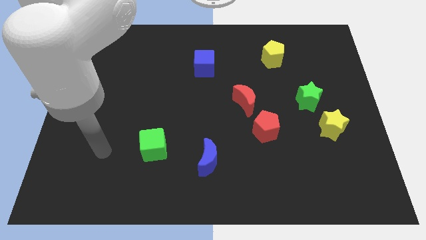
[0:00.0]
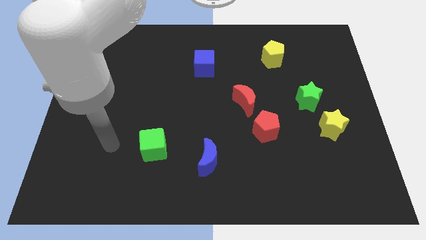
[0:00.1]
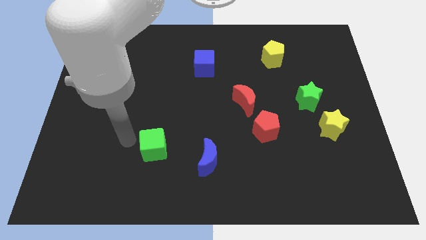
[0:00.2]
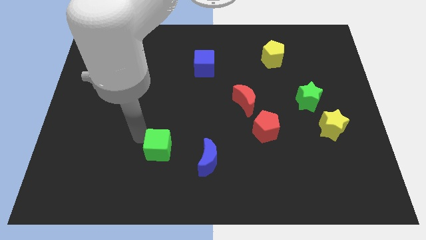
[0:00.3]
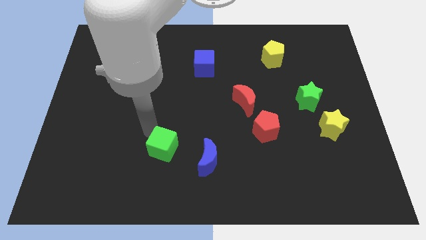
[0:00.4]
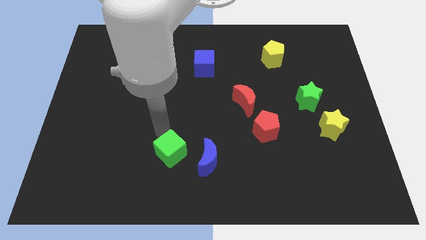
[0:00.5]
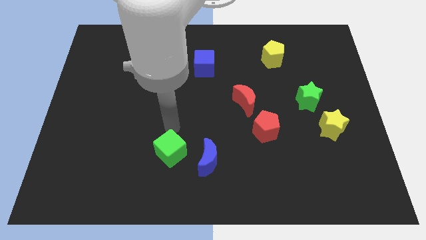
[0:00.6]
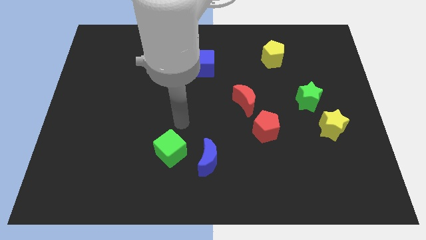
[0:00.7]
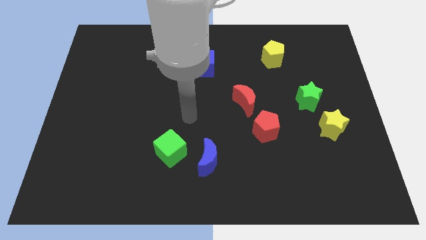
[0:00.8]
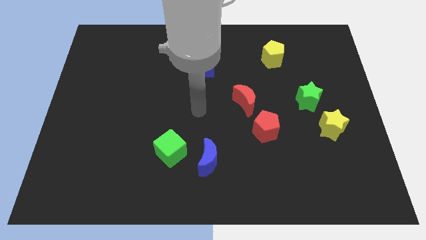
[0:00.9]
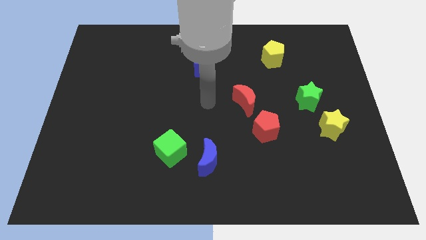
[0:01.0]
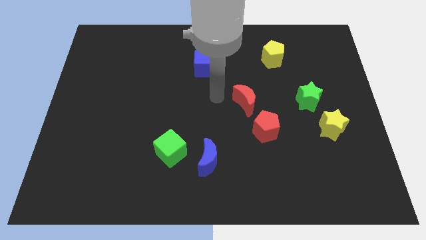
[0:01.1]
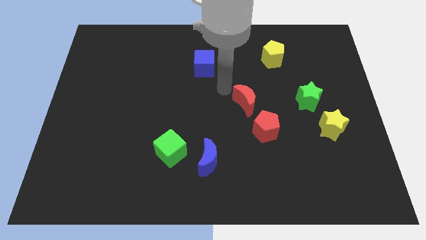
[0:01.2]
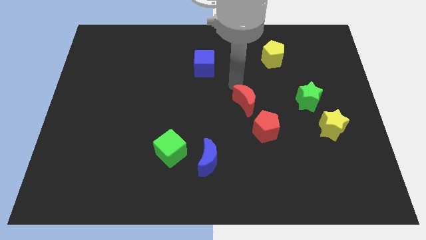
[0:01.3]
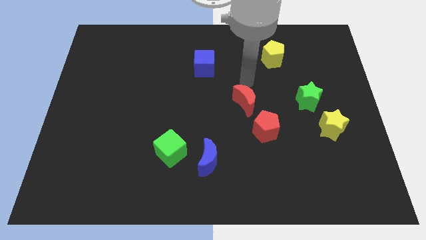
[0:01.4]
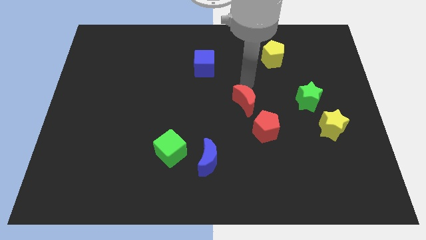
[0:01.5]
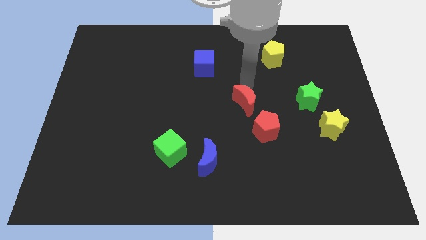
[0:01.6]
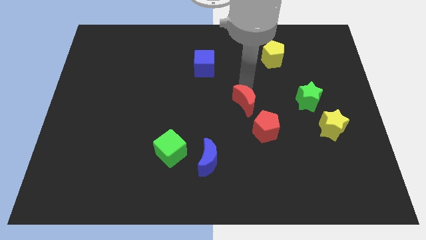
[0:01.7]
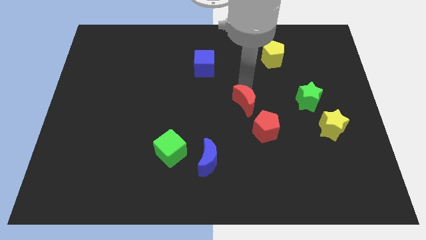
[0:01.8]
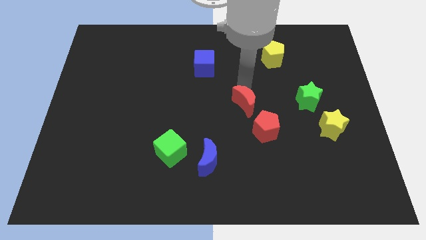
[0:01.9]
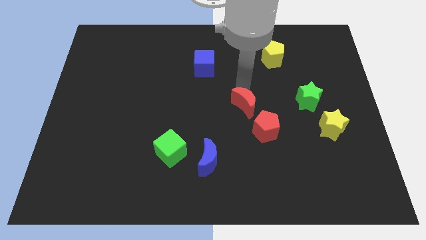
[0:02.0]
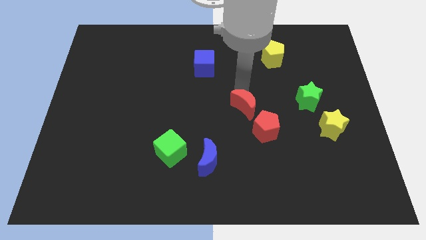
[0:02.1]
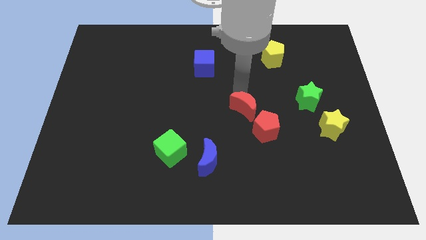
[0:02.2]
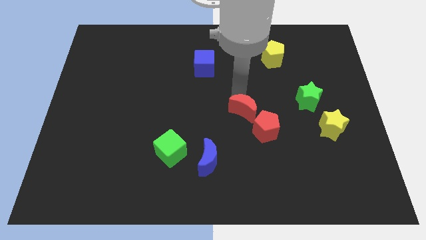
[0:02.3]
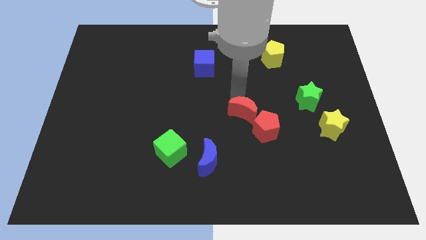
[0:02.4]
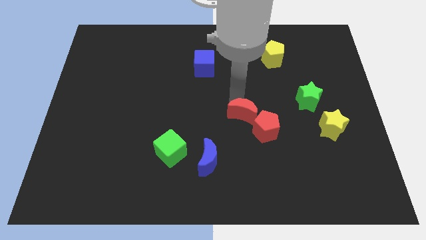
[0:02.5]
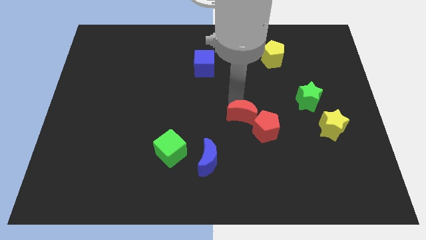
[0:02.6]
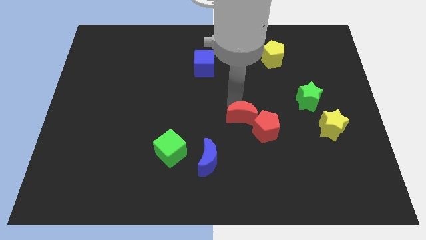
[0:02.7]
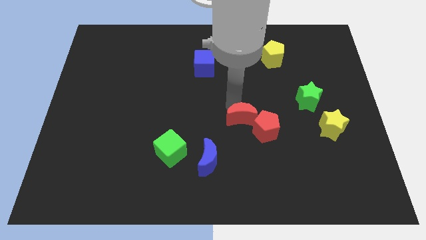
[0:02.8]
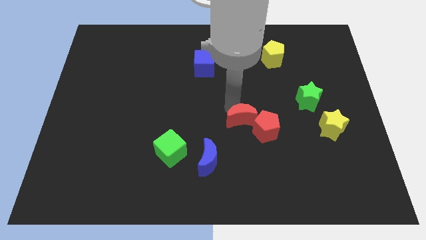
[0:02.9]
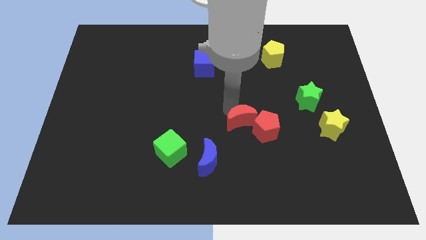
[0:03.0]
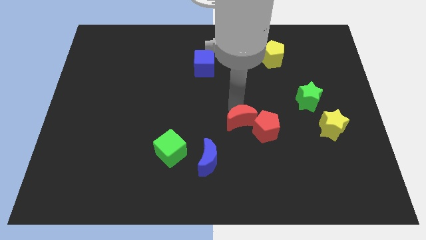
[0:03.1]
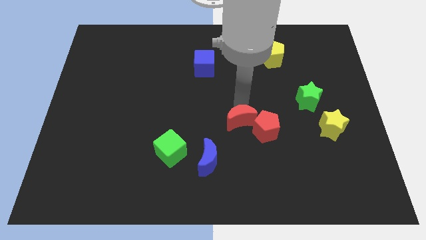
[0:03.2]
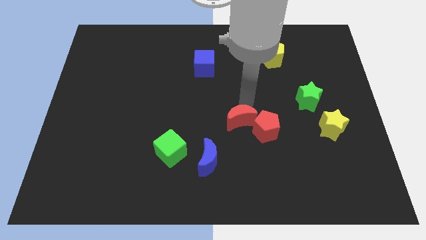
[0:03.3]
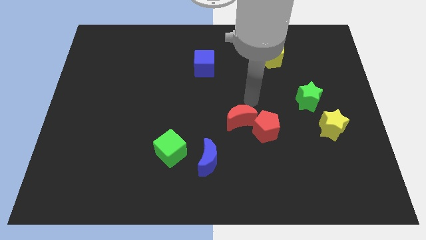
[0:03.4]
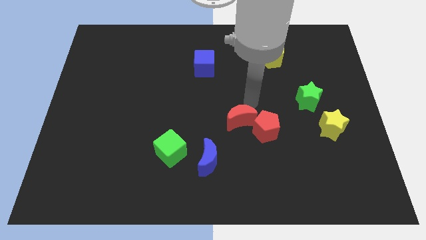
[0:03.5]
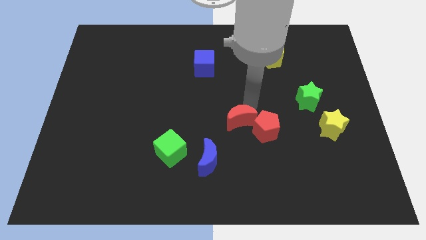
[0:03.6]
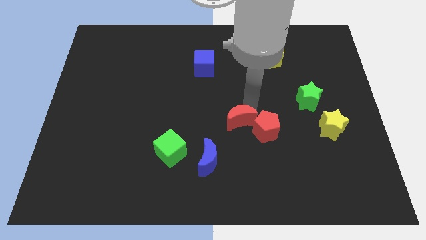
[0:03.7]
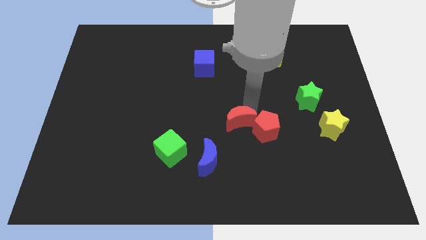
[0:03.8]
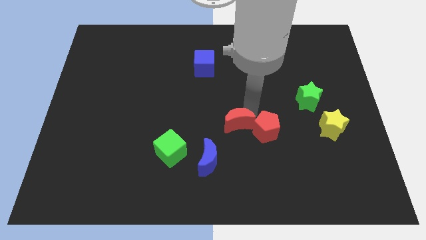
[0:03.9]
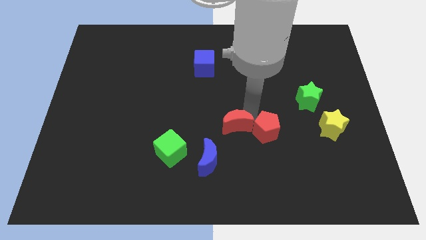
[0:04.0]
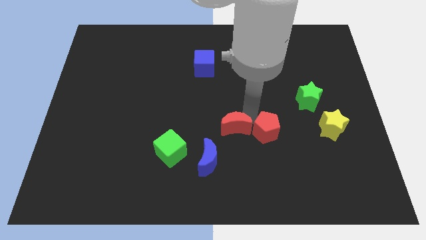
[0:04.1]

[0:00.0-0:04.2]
slide the red moon downwards a little bit

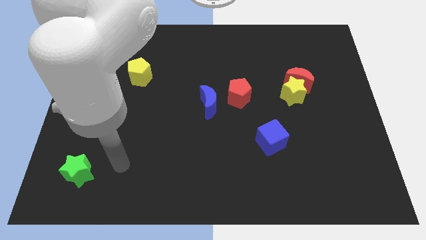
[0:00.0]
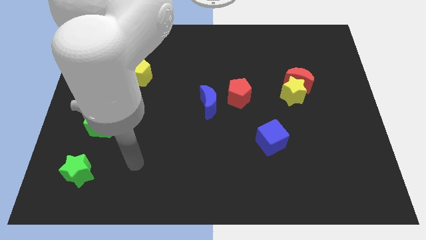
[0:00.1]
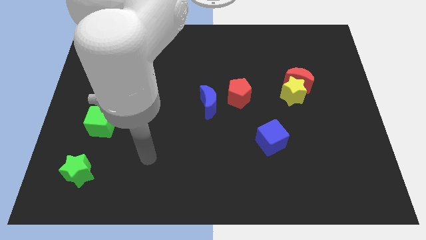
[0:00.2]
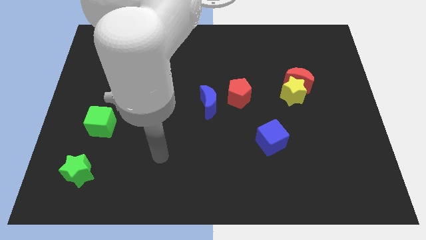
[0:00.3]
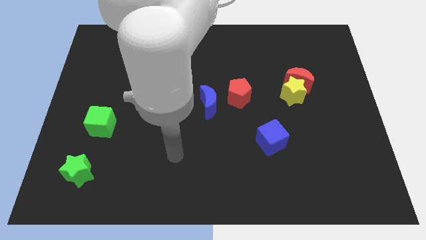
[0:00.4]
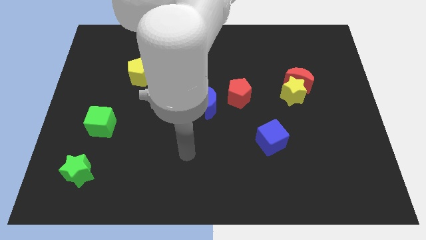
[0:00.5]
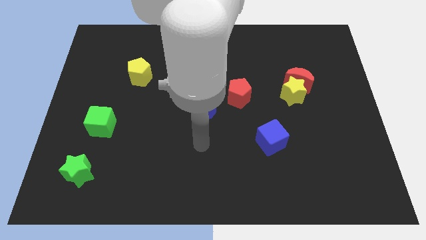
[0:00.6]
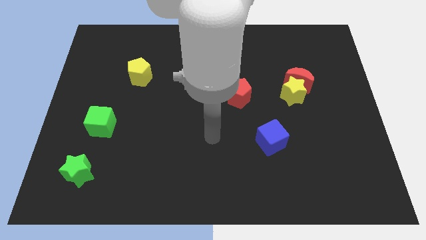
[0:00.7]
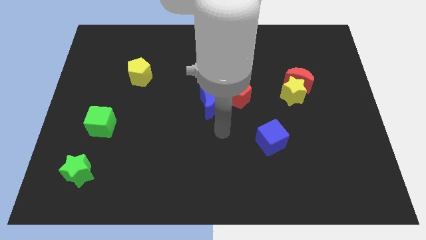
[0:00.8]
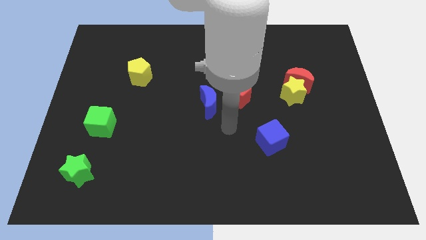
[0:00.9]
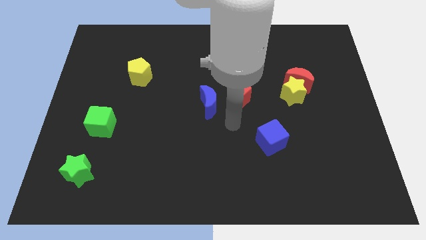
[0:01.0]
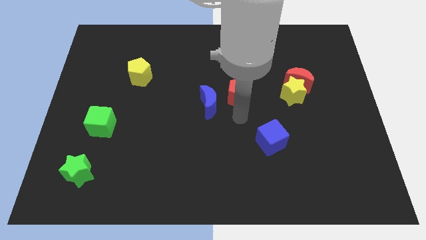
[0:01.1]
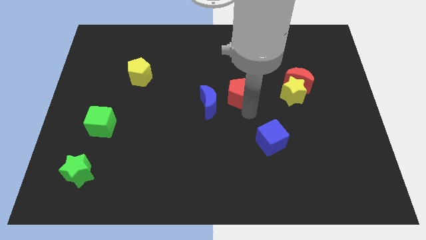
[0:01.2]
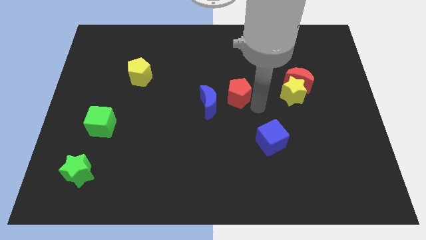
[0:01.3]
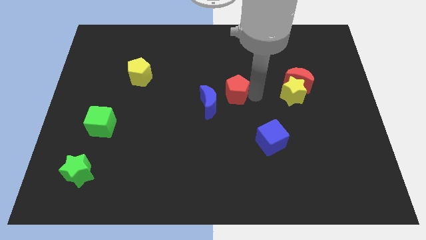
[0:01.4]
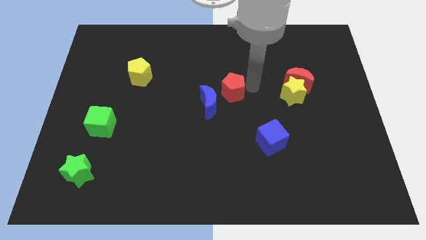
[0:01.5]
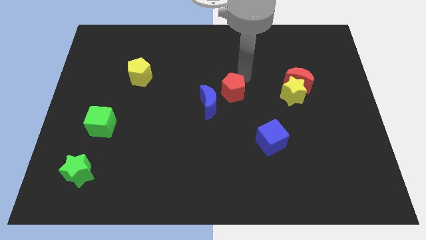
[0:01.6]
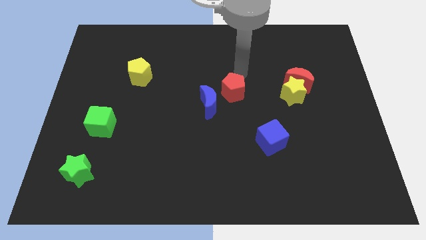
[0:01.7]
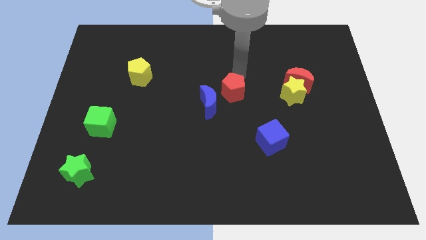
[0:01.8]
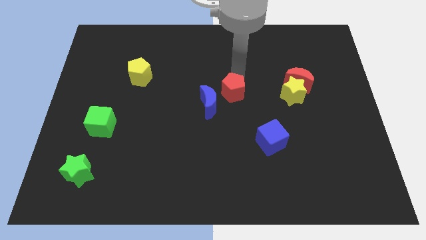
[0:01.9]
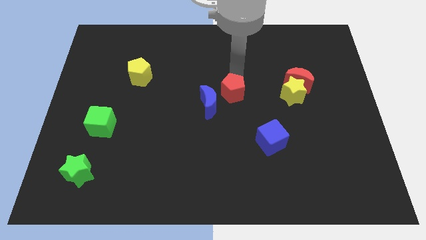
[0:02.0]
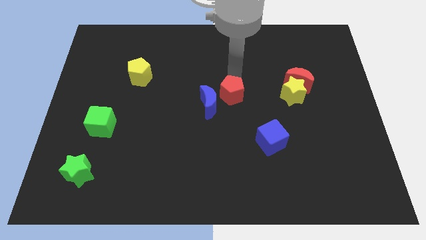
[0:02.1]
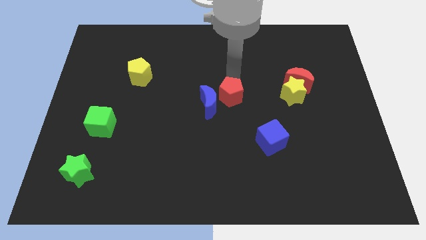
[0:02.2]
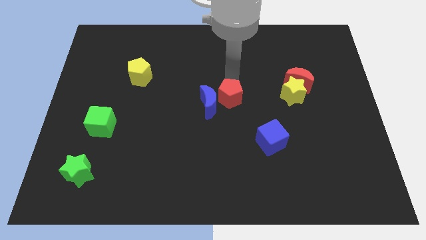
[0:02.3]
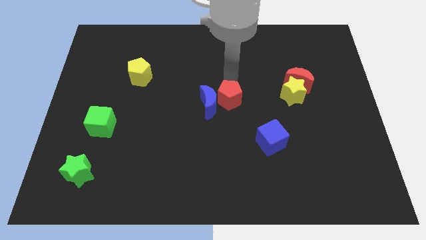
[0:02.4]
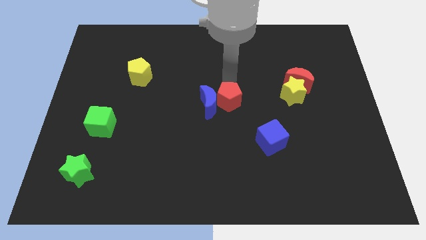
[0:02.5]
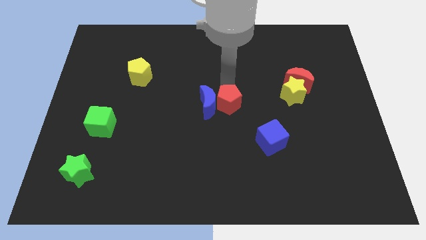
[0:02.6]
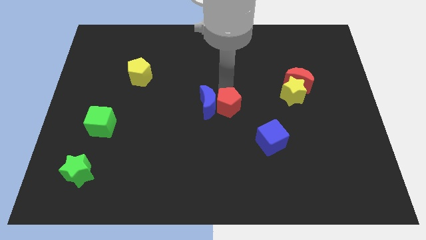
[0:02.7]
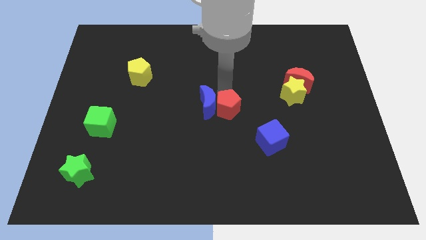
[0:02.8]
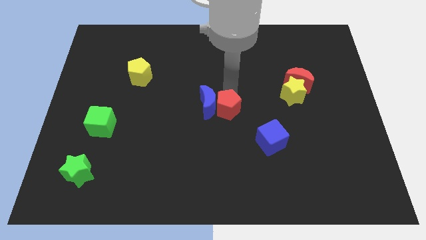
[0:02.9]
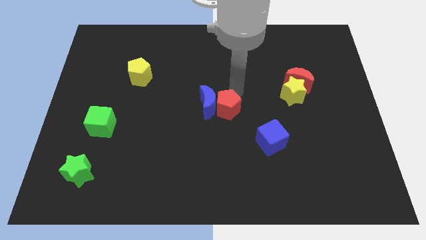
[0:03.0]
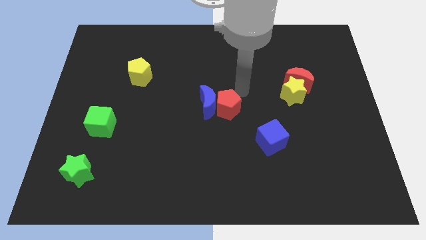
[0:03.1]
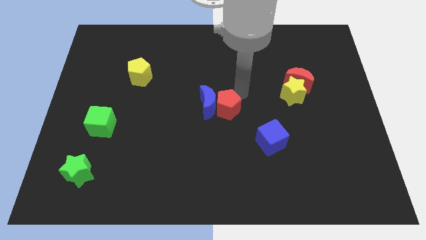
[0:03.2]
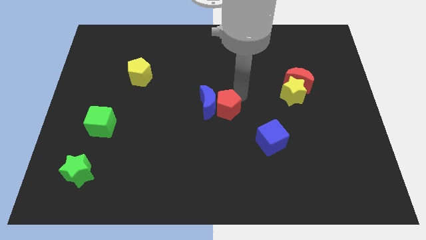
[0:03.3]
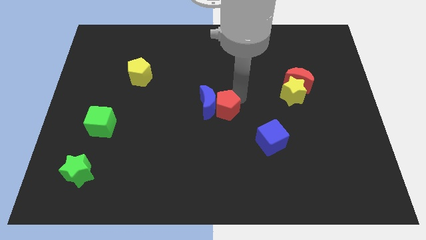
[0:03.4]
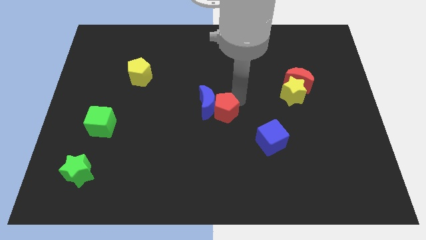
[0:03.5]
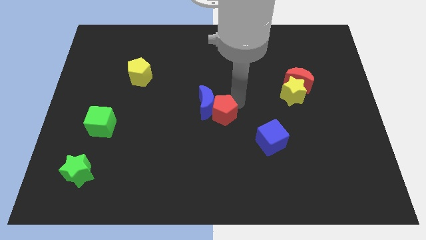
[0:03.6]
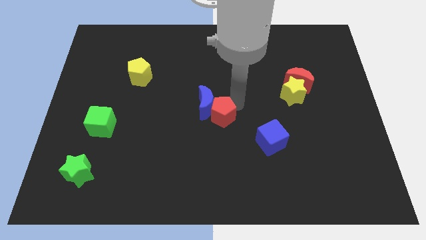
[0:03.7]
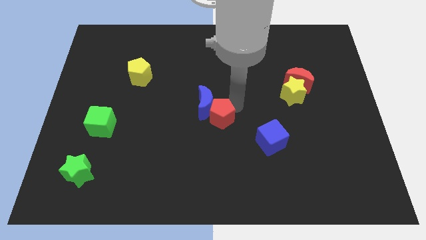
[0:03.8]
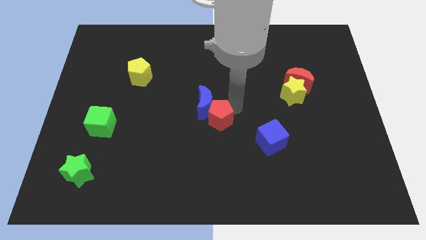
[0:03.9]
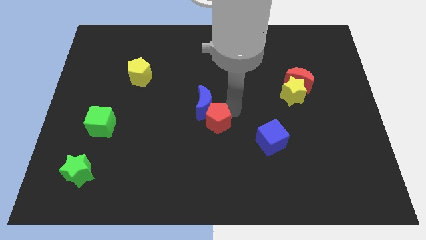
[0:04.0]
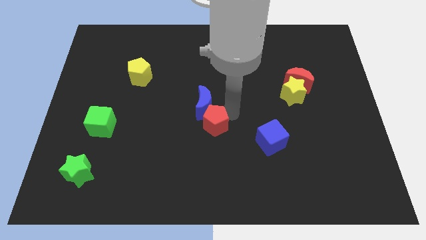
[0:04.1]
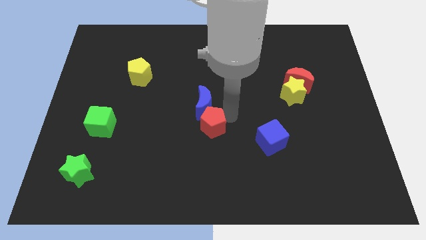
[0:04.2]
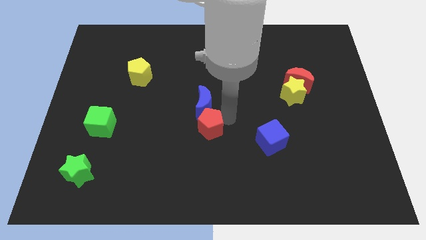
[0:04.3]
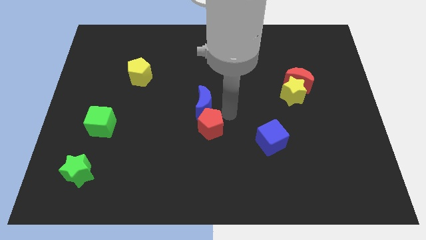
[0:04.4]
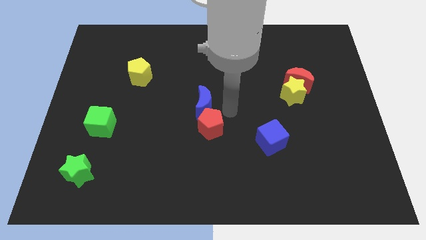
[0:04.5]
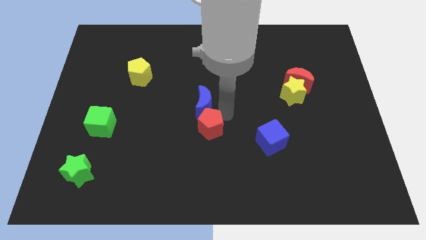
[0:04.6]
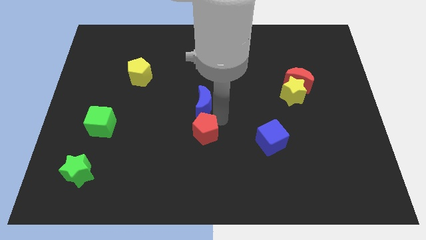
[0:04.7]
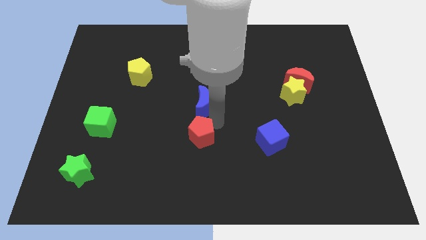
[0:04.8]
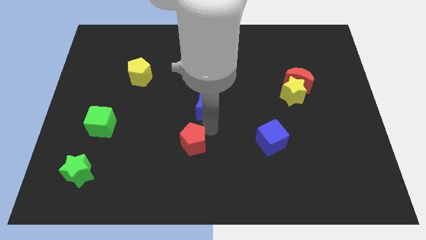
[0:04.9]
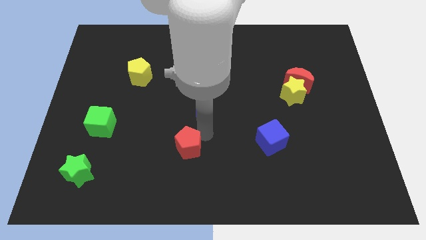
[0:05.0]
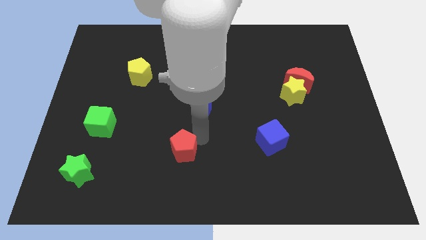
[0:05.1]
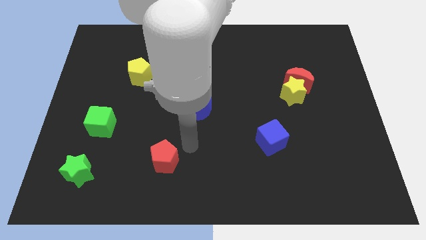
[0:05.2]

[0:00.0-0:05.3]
move the red pentagon downwards and to the left
